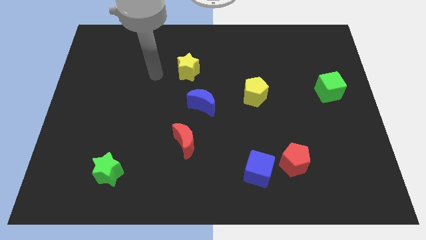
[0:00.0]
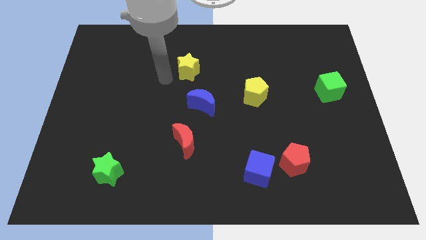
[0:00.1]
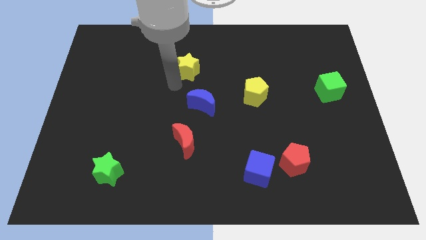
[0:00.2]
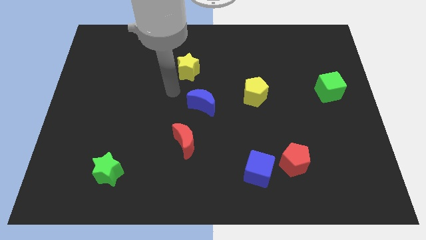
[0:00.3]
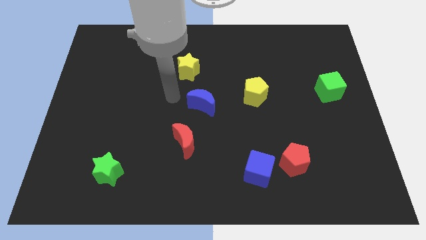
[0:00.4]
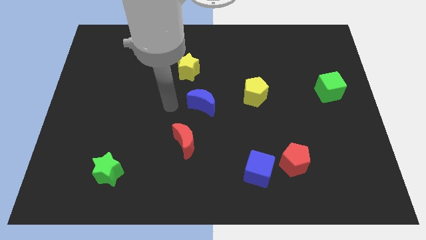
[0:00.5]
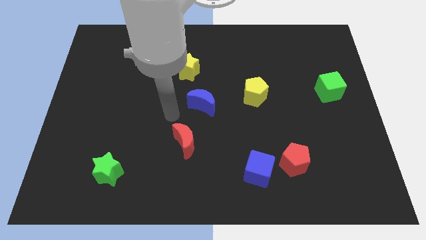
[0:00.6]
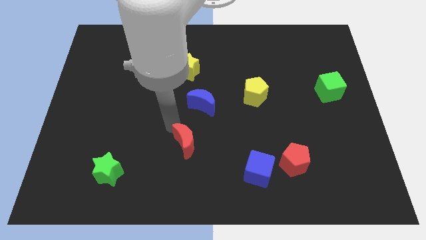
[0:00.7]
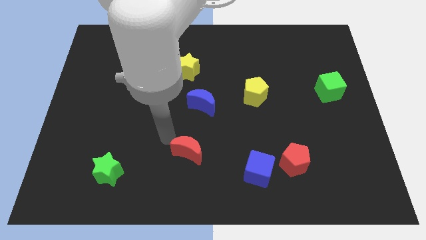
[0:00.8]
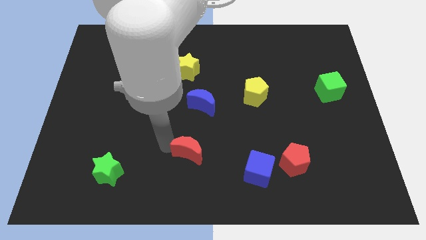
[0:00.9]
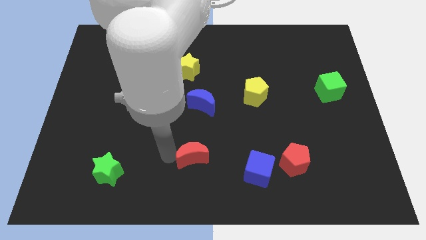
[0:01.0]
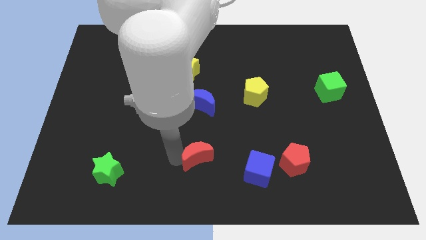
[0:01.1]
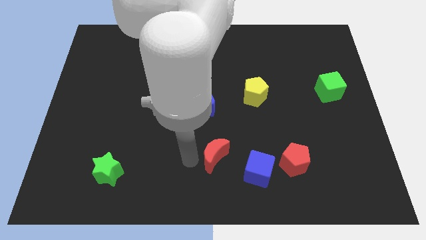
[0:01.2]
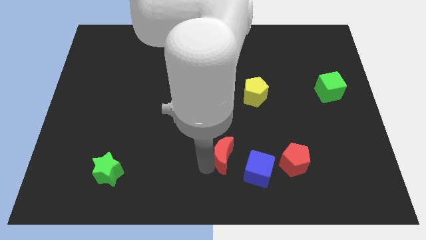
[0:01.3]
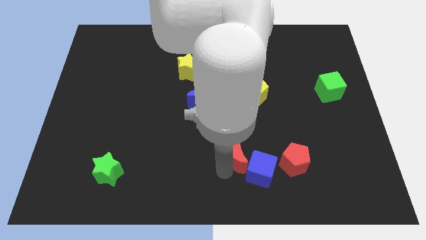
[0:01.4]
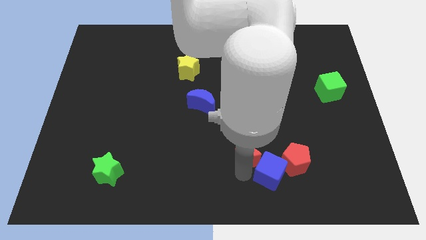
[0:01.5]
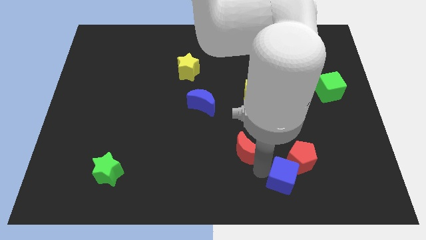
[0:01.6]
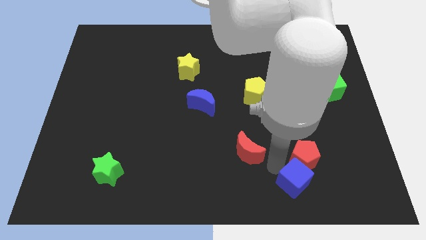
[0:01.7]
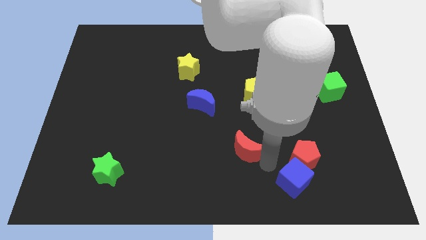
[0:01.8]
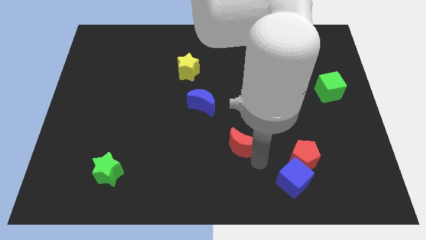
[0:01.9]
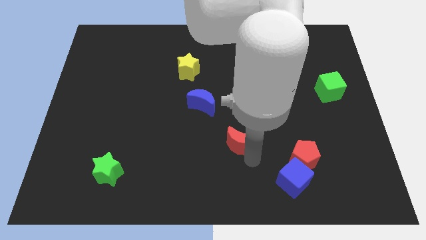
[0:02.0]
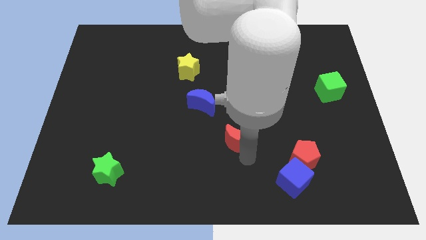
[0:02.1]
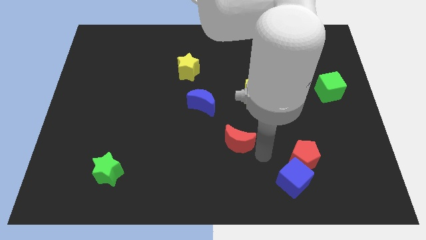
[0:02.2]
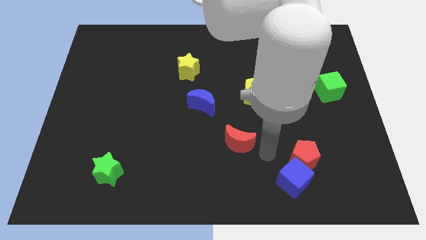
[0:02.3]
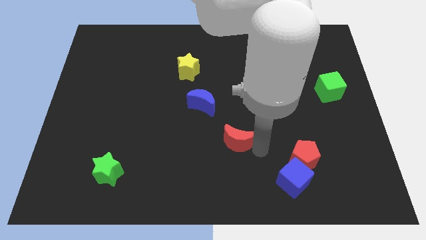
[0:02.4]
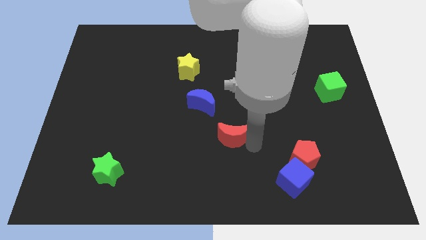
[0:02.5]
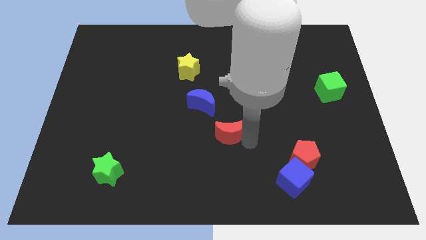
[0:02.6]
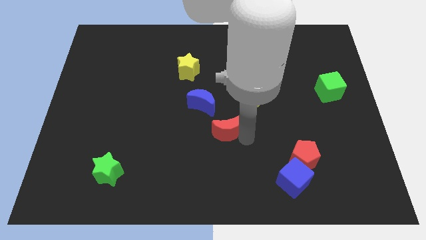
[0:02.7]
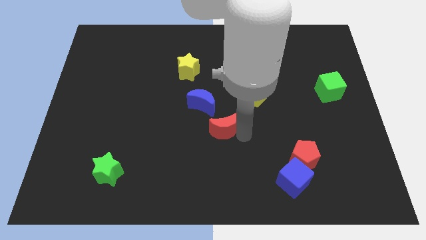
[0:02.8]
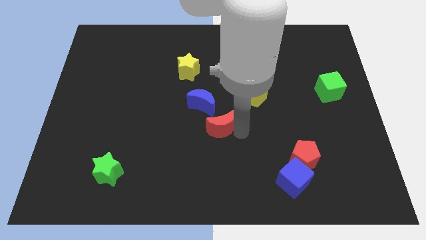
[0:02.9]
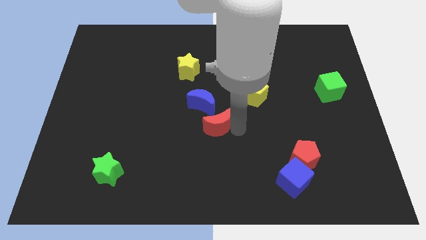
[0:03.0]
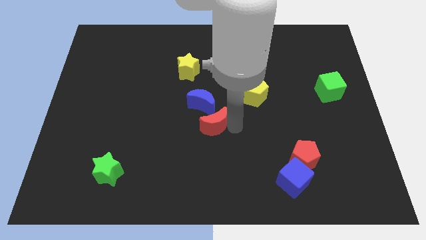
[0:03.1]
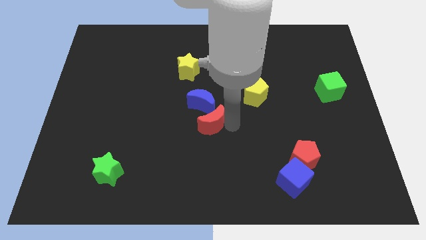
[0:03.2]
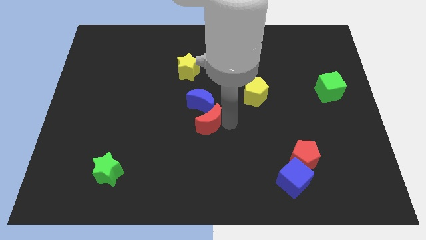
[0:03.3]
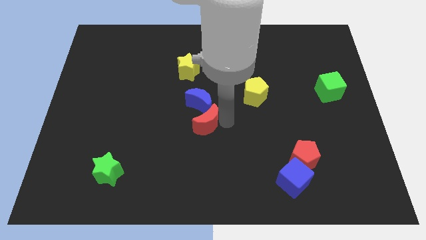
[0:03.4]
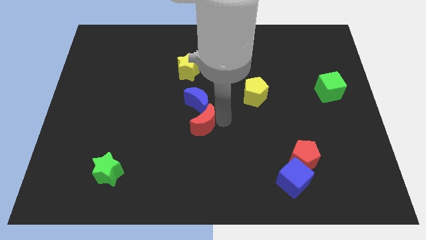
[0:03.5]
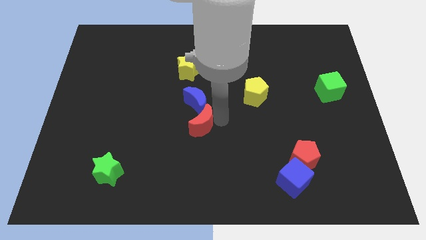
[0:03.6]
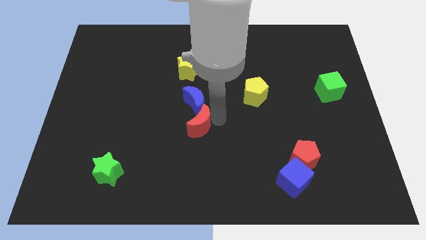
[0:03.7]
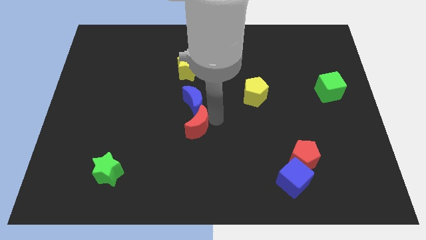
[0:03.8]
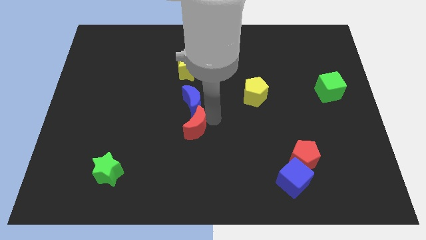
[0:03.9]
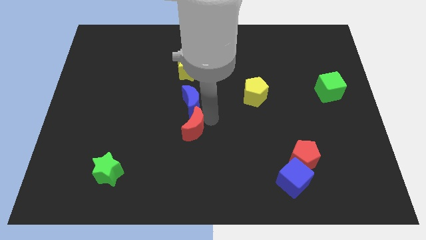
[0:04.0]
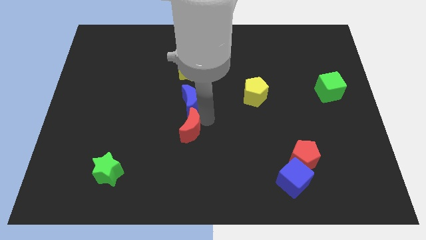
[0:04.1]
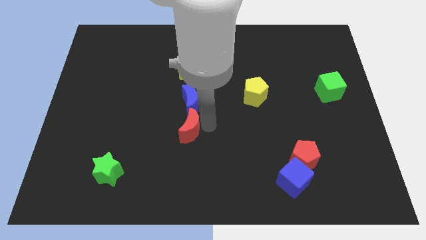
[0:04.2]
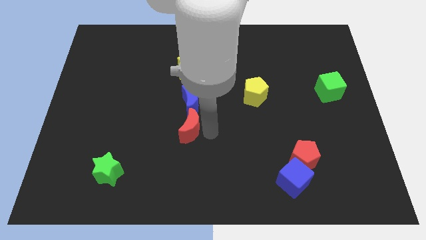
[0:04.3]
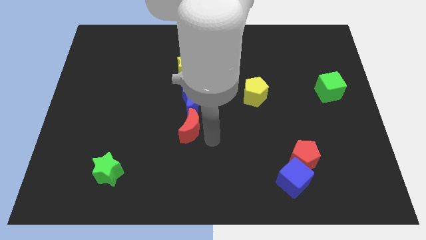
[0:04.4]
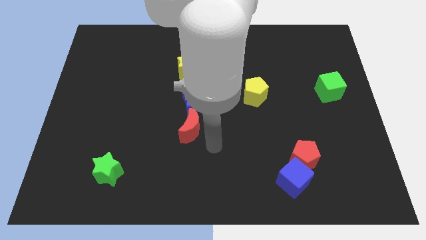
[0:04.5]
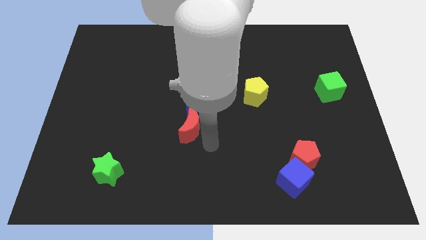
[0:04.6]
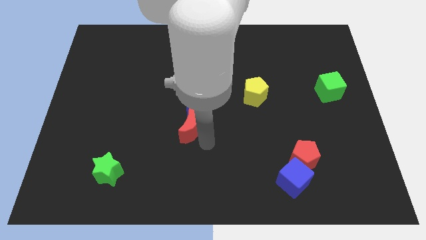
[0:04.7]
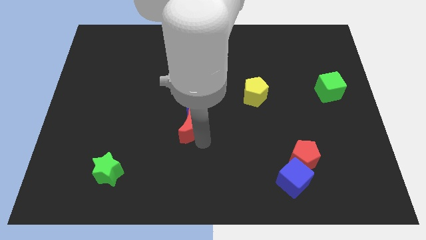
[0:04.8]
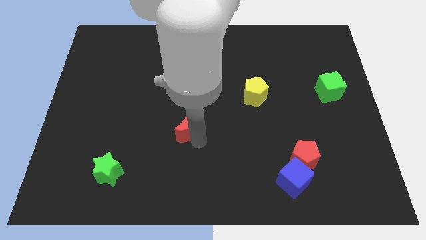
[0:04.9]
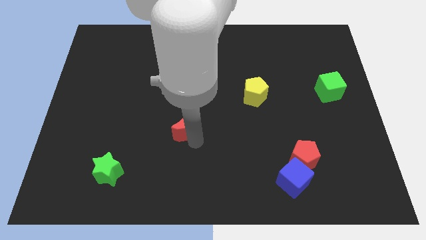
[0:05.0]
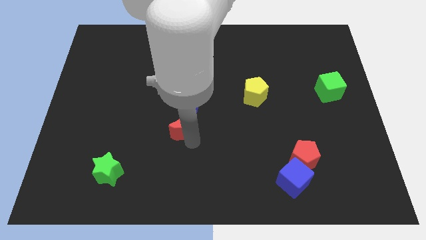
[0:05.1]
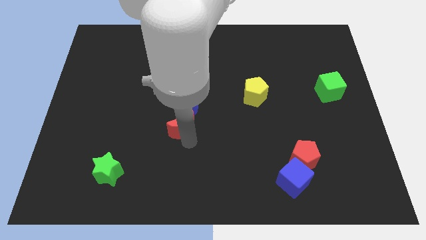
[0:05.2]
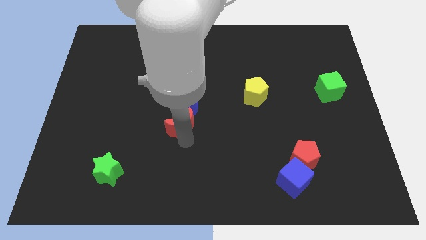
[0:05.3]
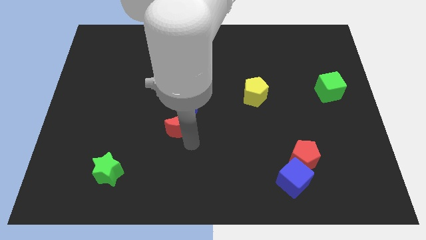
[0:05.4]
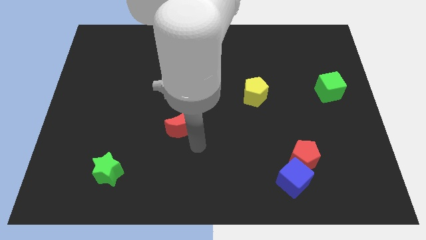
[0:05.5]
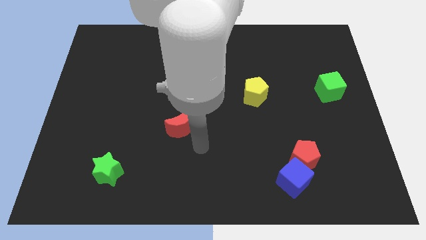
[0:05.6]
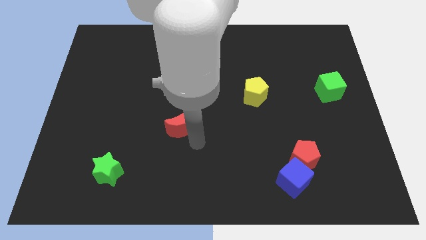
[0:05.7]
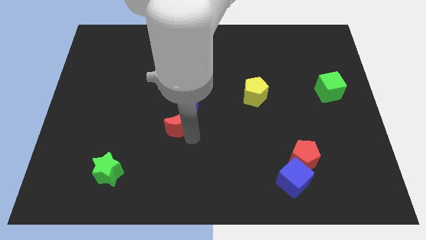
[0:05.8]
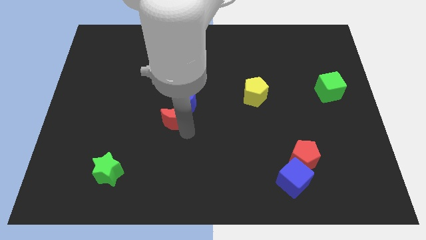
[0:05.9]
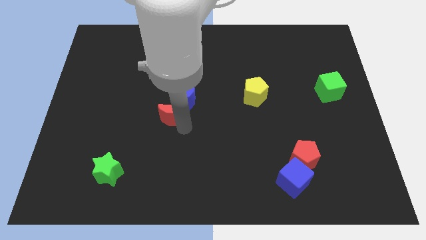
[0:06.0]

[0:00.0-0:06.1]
slightly push the red moon upwards and left diagonally

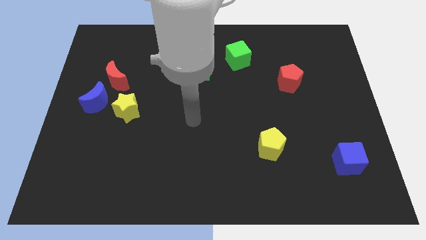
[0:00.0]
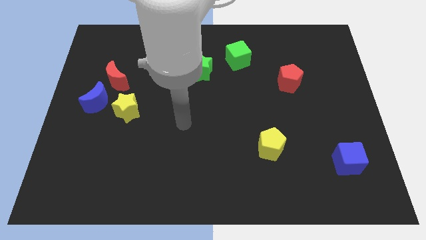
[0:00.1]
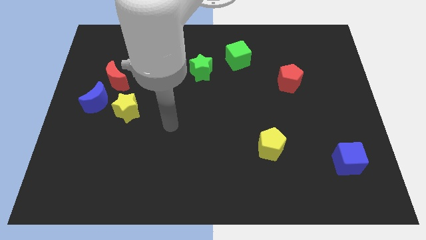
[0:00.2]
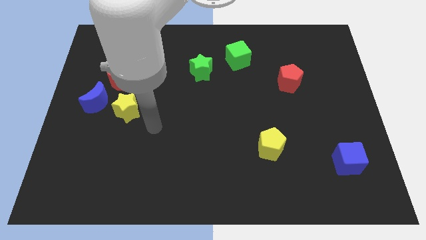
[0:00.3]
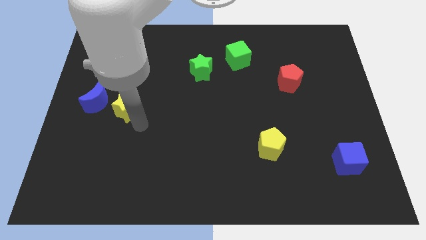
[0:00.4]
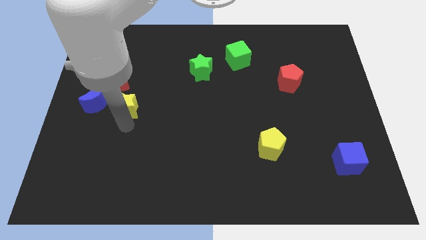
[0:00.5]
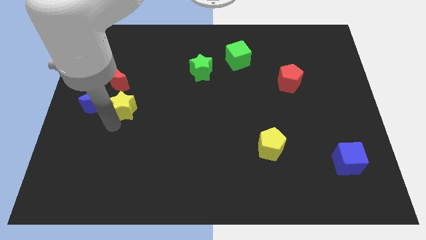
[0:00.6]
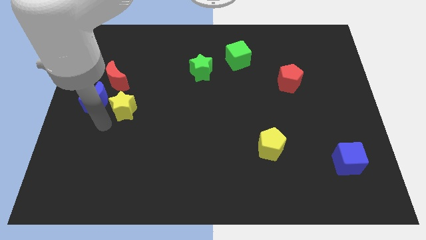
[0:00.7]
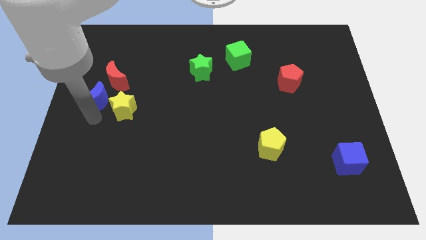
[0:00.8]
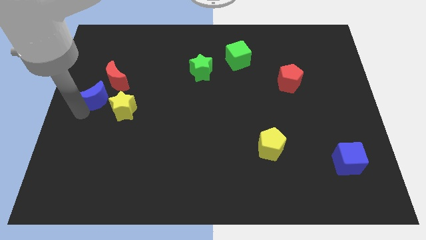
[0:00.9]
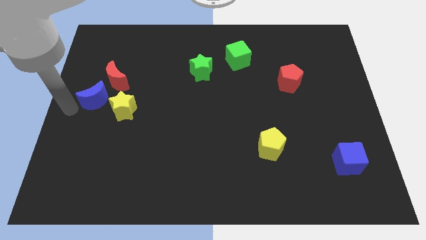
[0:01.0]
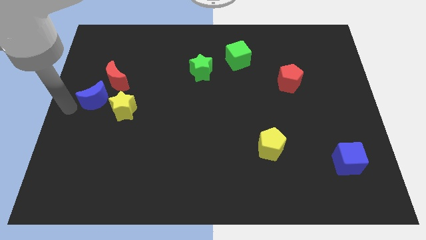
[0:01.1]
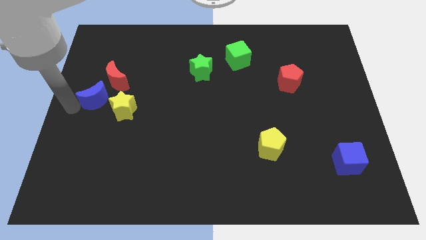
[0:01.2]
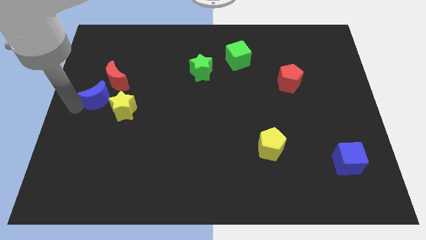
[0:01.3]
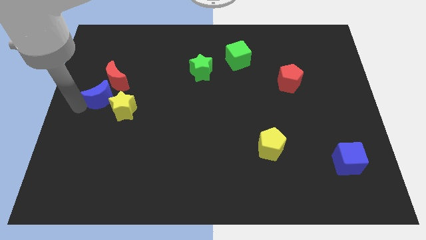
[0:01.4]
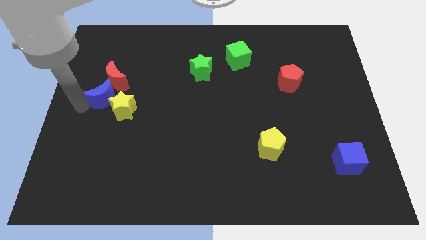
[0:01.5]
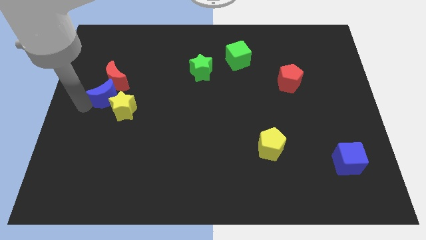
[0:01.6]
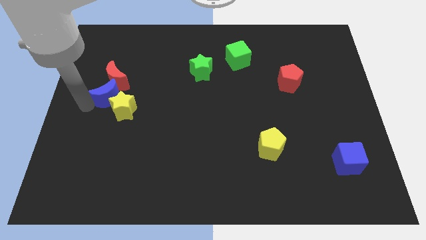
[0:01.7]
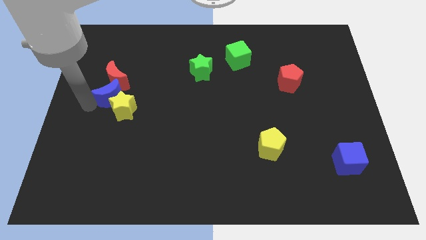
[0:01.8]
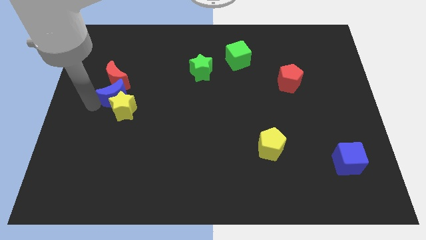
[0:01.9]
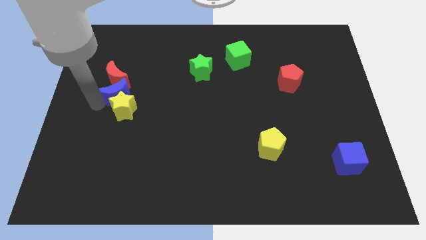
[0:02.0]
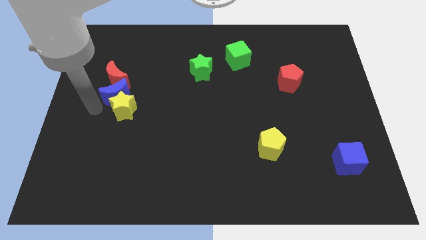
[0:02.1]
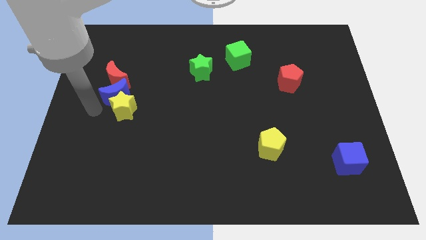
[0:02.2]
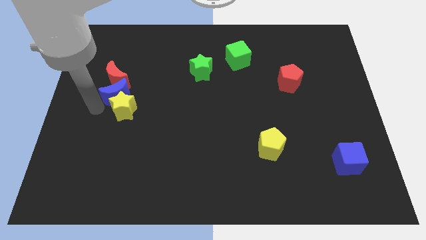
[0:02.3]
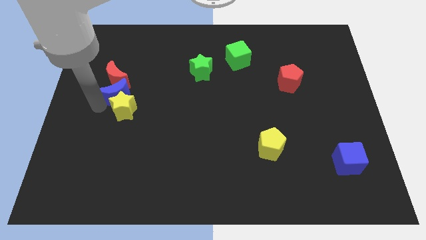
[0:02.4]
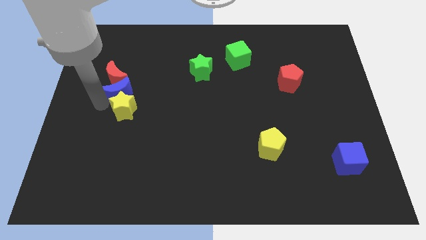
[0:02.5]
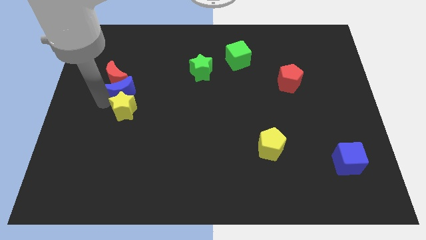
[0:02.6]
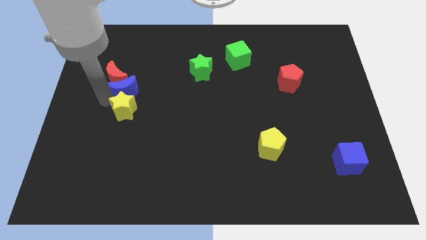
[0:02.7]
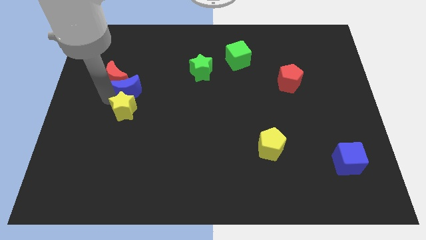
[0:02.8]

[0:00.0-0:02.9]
slide the blue moon slightly up and then right
